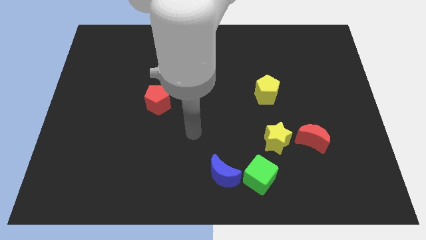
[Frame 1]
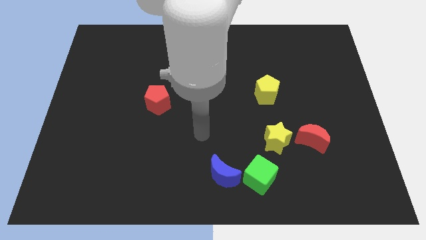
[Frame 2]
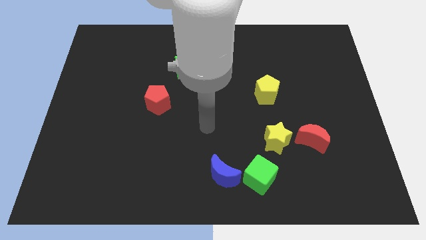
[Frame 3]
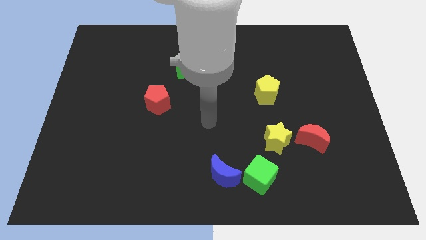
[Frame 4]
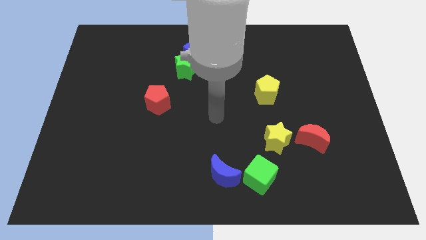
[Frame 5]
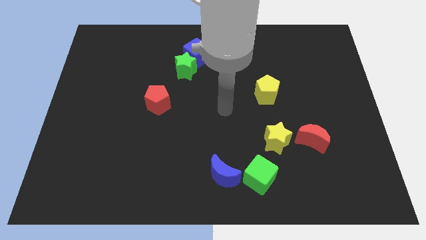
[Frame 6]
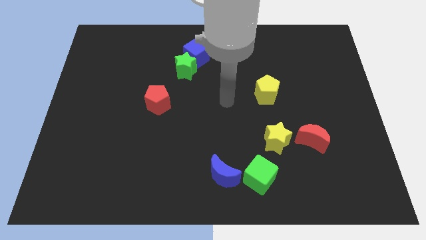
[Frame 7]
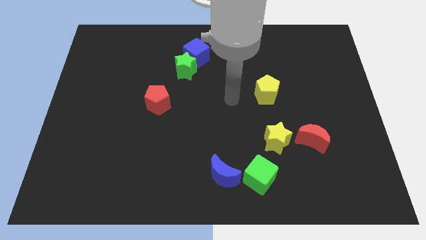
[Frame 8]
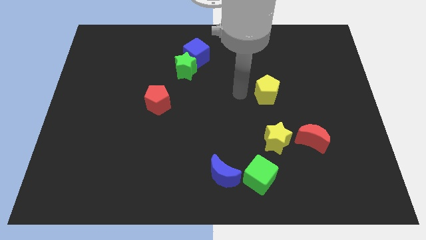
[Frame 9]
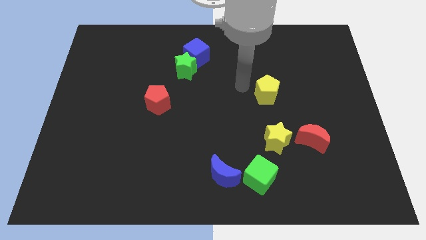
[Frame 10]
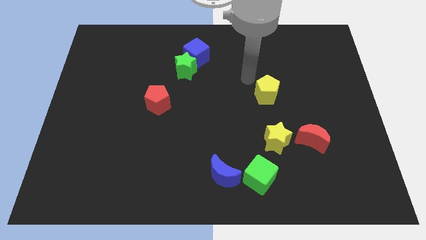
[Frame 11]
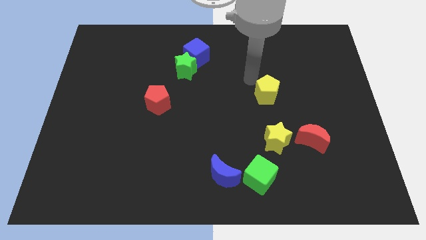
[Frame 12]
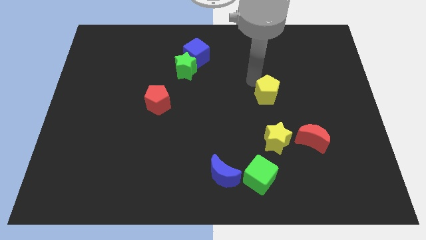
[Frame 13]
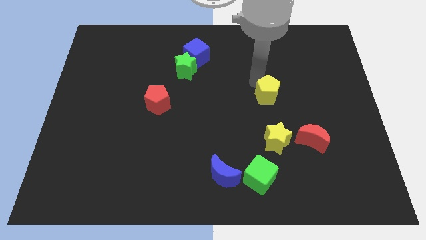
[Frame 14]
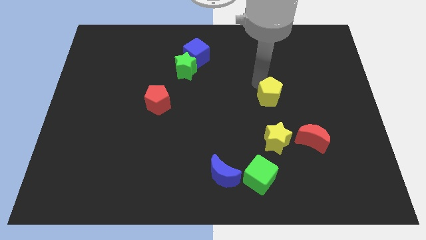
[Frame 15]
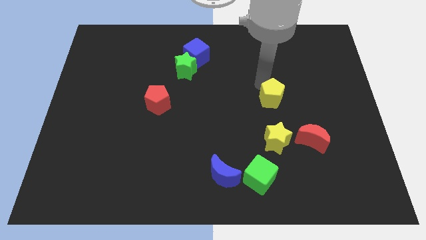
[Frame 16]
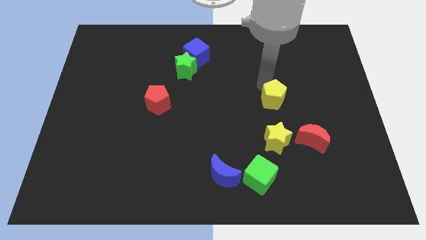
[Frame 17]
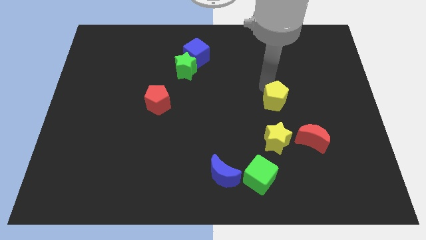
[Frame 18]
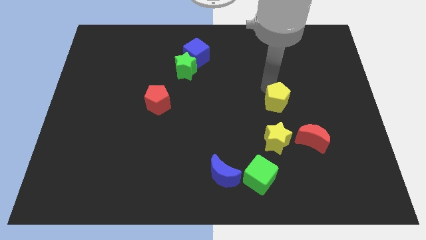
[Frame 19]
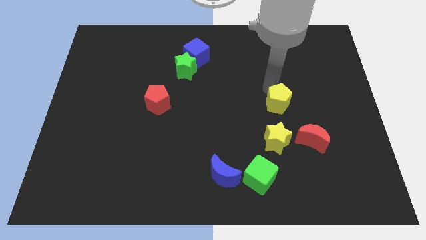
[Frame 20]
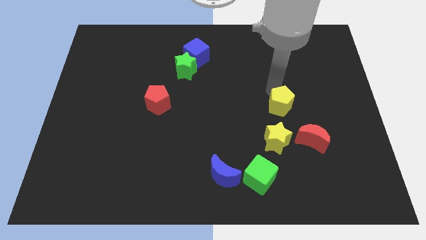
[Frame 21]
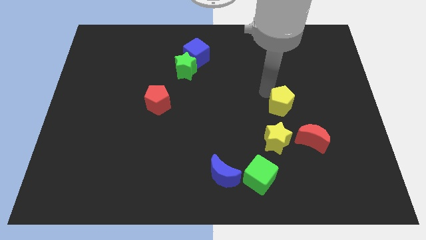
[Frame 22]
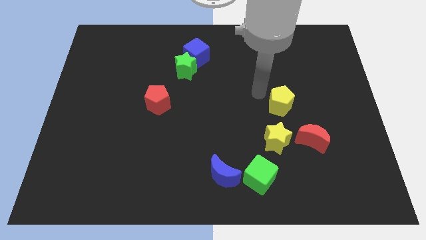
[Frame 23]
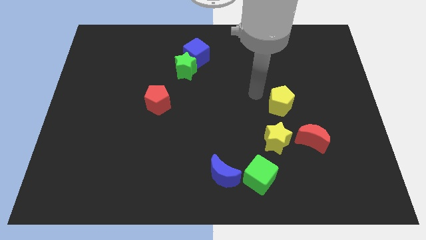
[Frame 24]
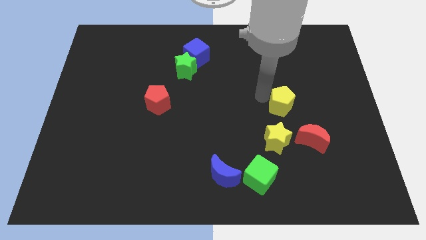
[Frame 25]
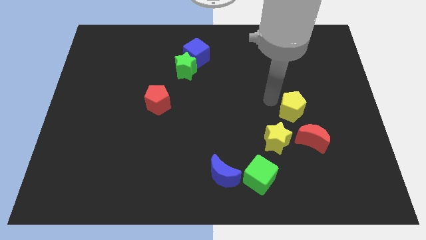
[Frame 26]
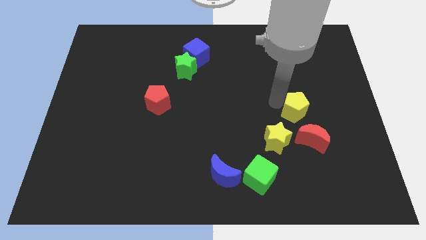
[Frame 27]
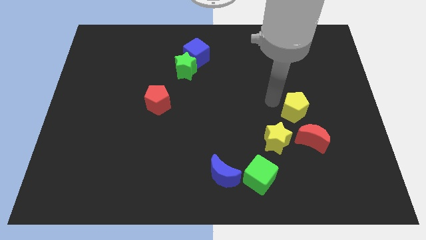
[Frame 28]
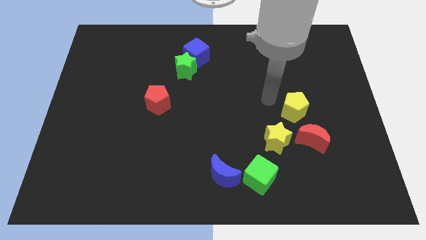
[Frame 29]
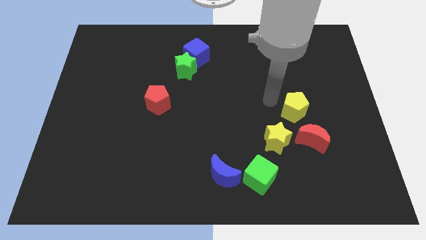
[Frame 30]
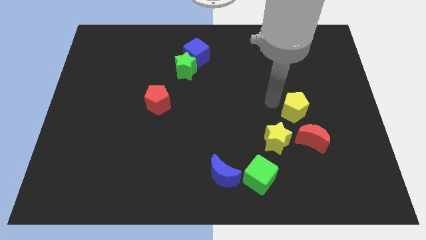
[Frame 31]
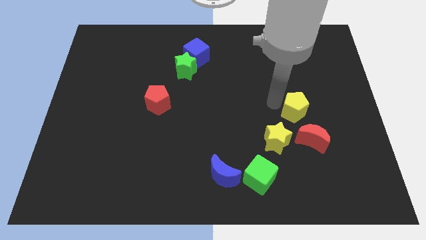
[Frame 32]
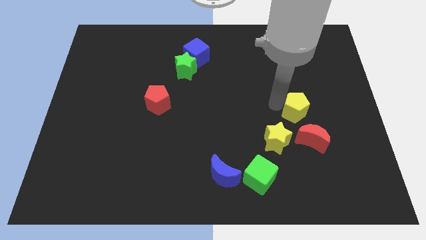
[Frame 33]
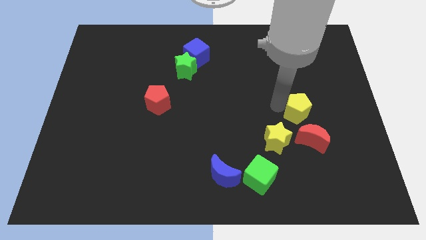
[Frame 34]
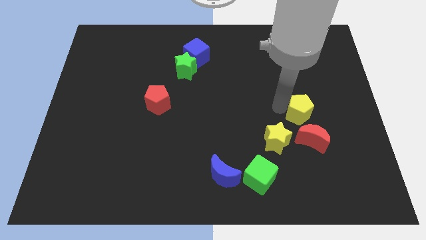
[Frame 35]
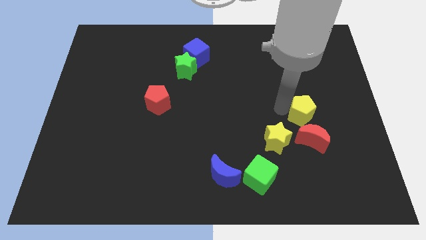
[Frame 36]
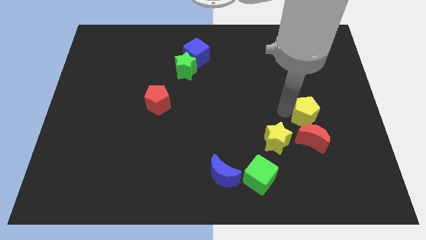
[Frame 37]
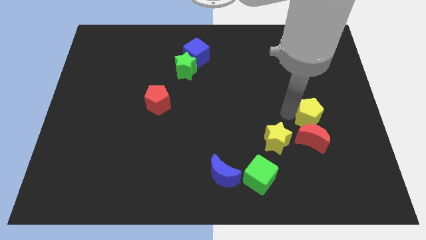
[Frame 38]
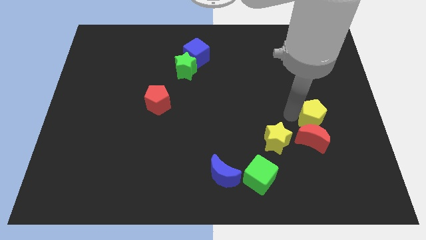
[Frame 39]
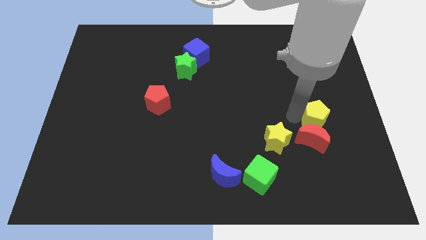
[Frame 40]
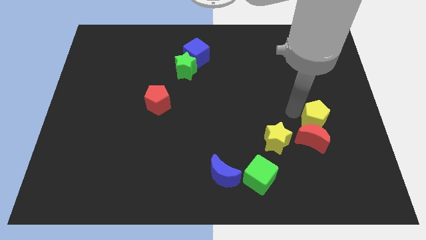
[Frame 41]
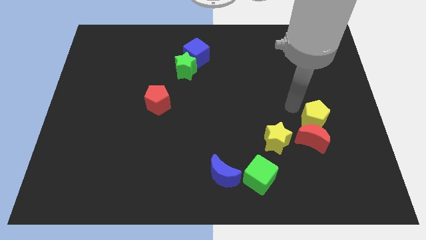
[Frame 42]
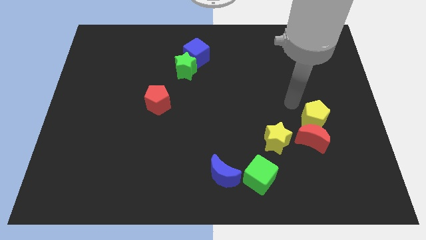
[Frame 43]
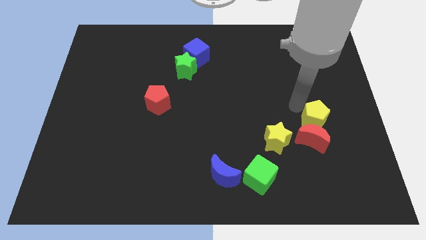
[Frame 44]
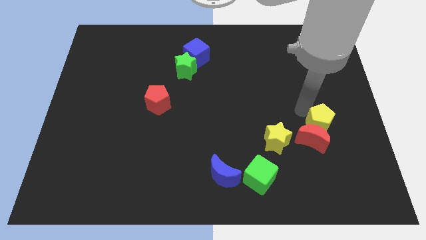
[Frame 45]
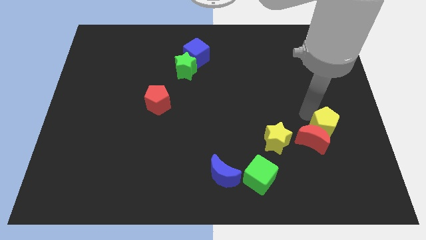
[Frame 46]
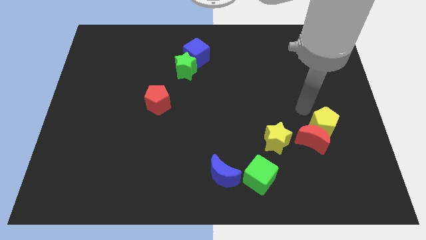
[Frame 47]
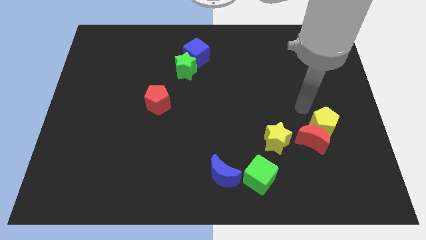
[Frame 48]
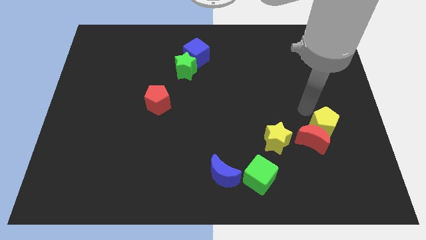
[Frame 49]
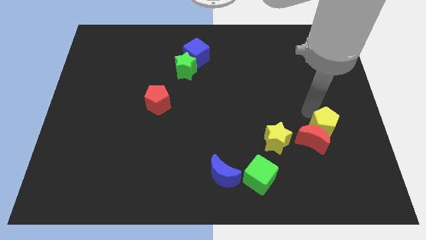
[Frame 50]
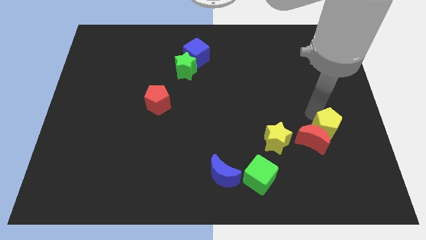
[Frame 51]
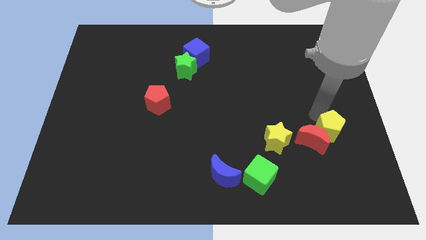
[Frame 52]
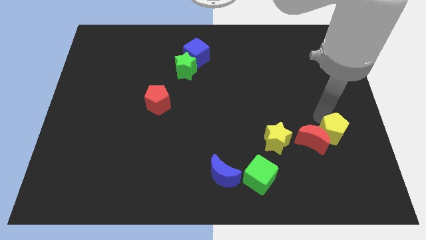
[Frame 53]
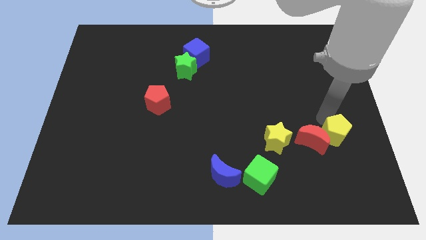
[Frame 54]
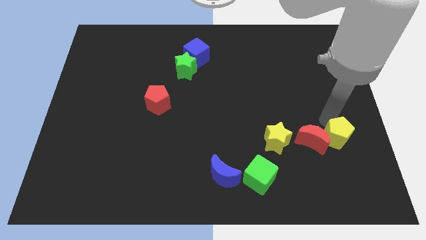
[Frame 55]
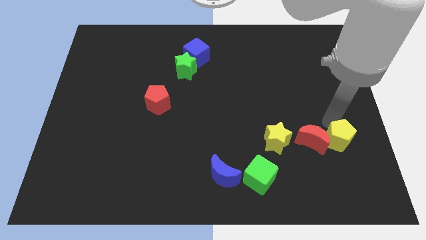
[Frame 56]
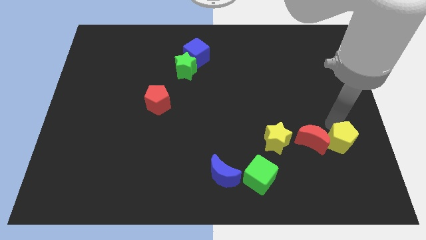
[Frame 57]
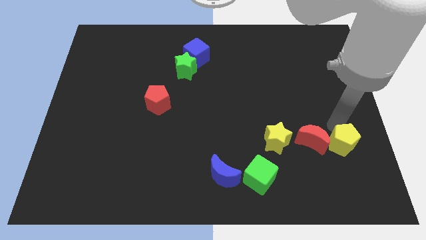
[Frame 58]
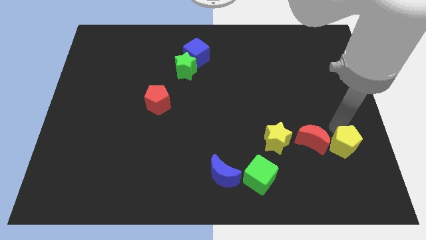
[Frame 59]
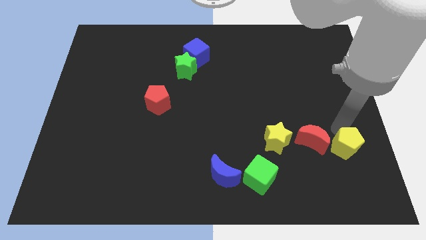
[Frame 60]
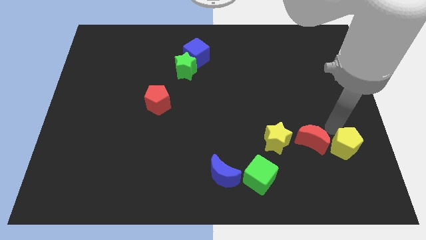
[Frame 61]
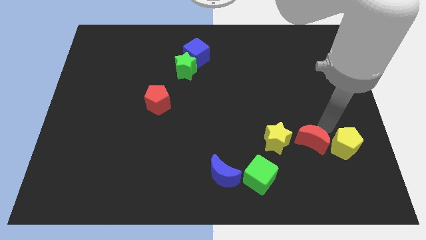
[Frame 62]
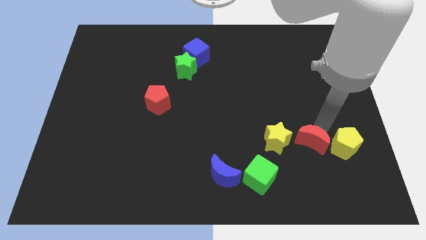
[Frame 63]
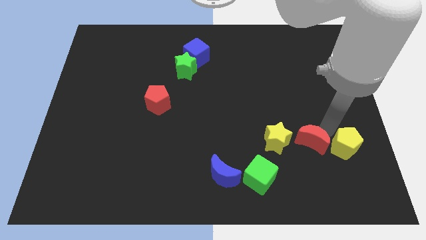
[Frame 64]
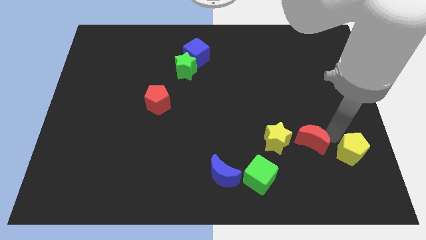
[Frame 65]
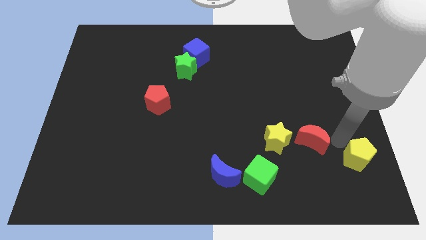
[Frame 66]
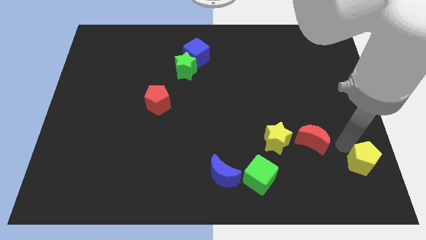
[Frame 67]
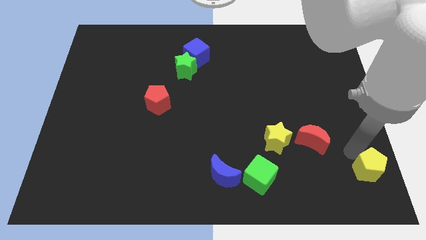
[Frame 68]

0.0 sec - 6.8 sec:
move the yellow pentagon to the bottom right corner
